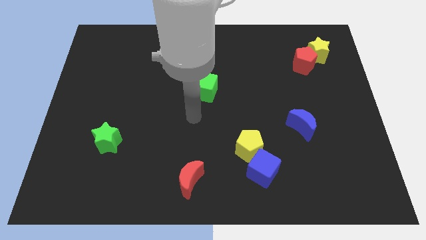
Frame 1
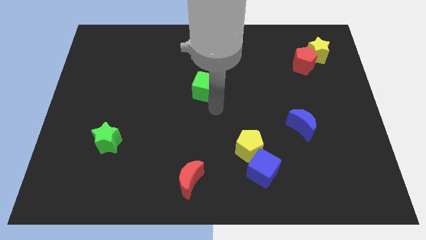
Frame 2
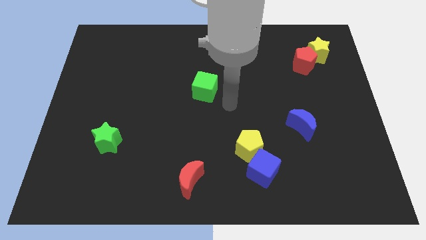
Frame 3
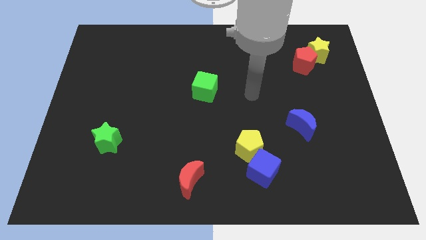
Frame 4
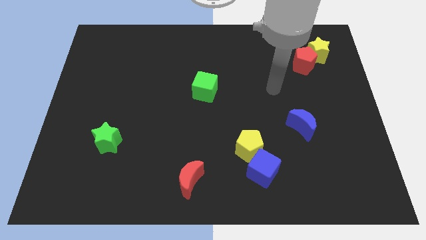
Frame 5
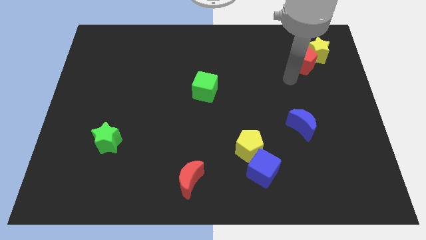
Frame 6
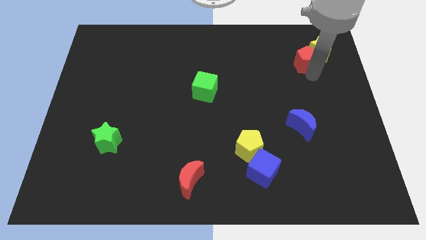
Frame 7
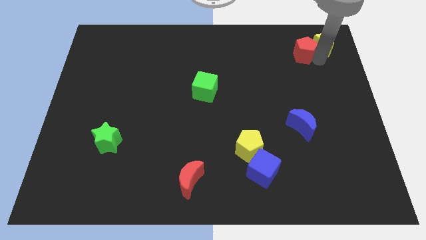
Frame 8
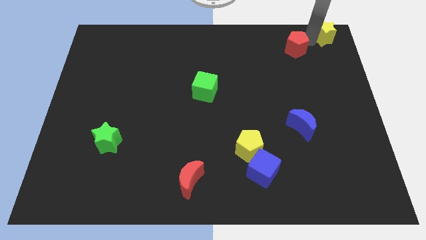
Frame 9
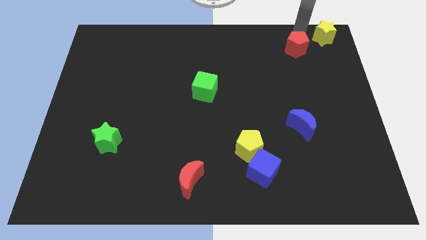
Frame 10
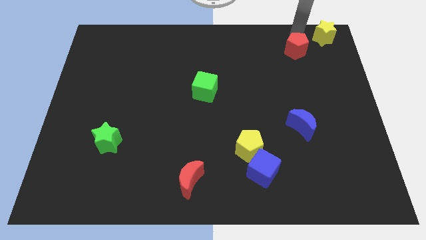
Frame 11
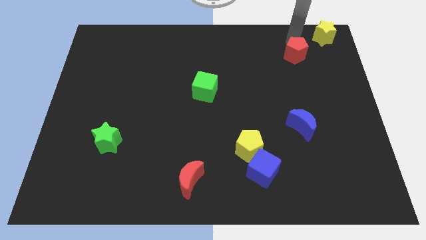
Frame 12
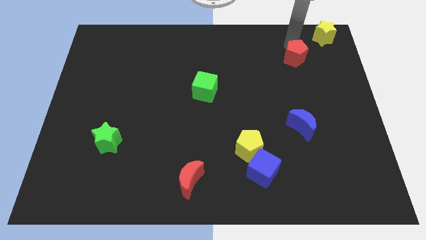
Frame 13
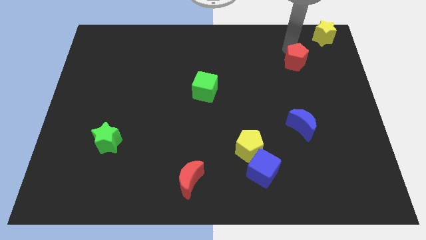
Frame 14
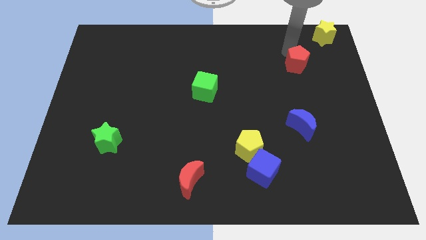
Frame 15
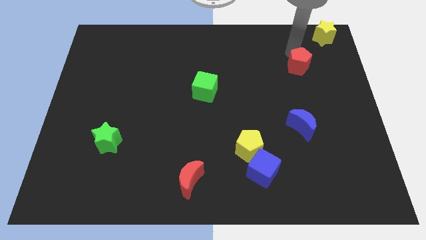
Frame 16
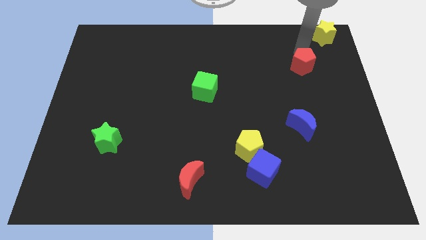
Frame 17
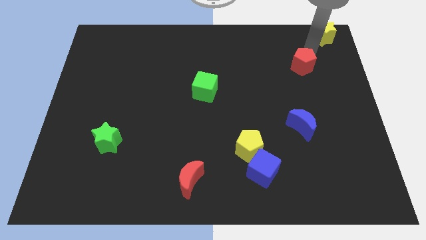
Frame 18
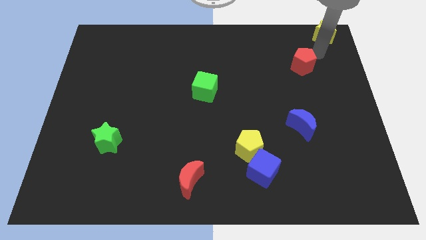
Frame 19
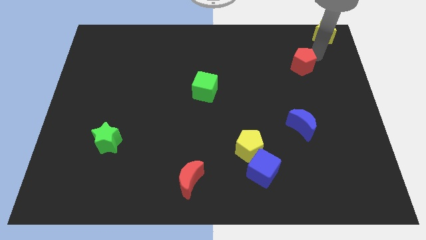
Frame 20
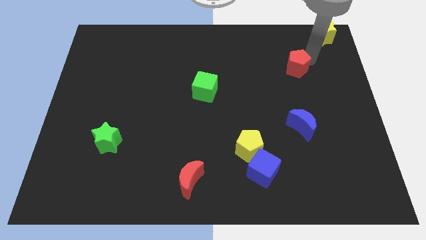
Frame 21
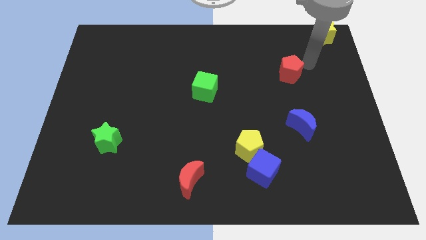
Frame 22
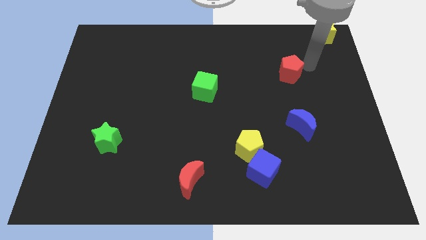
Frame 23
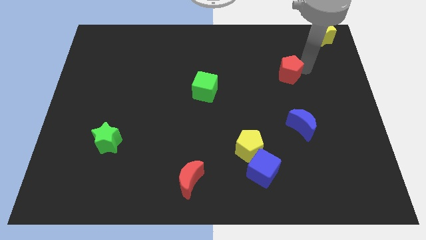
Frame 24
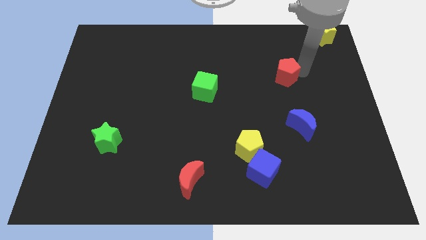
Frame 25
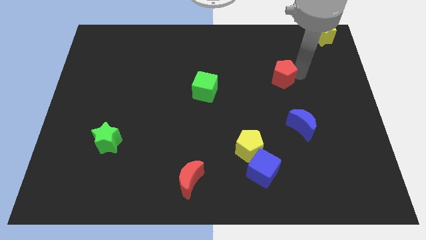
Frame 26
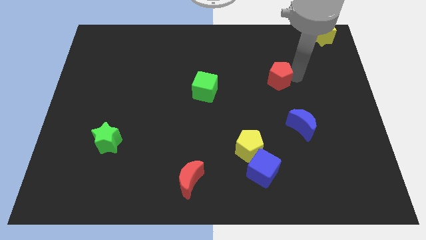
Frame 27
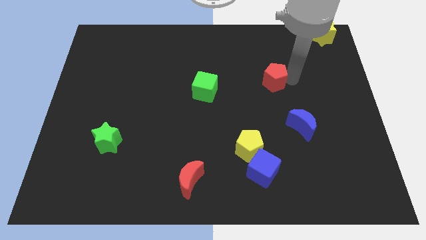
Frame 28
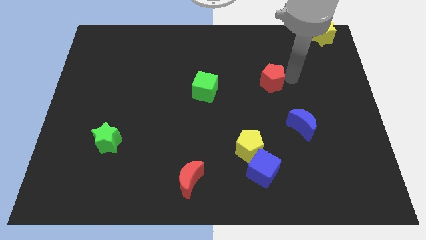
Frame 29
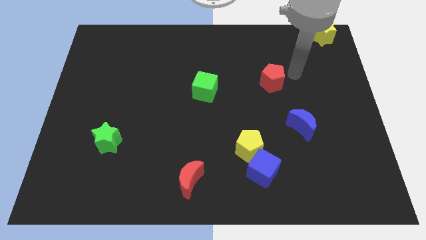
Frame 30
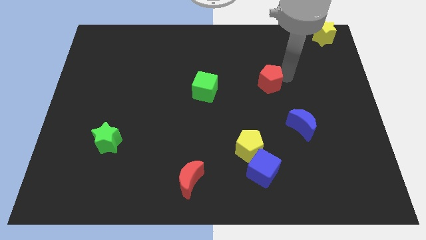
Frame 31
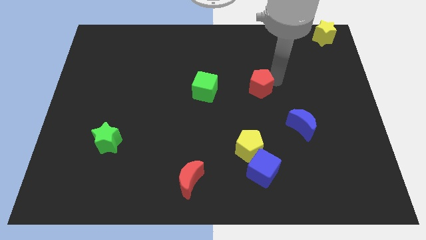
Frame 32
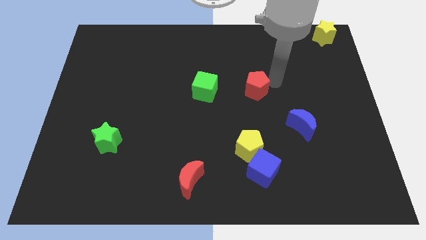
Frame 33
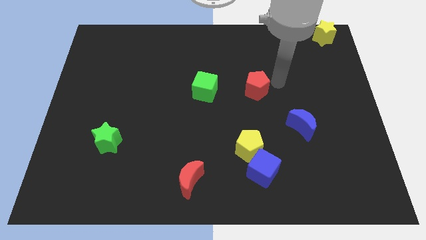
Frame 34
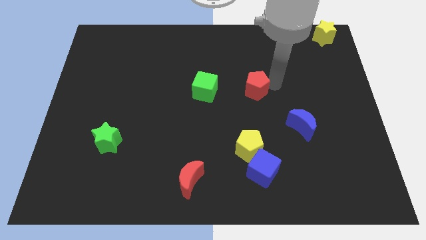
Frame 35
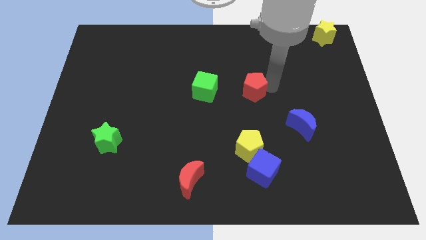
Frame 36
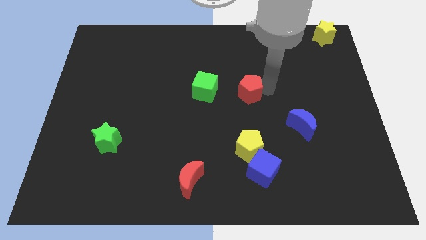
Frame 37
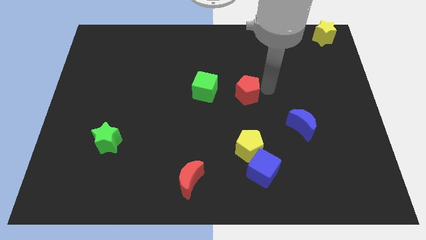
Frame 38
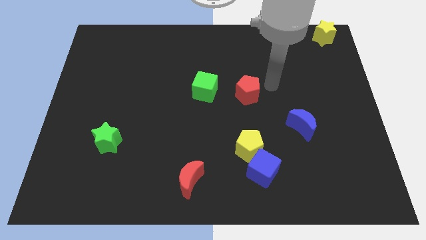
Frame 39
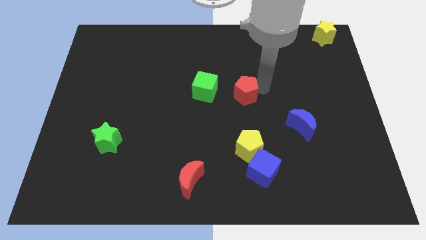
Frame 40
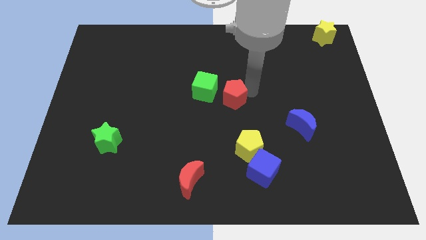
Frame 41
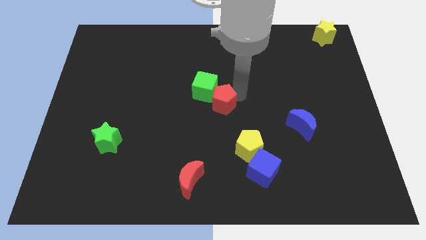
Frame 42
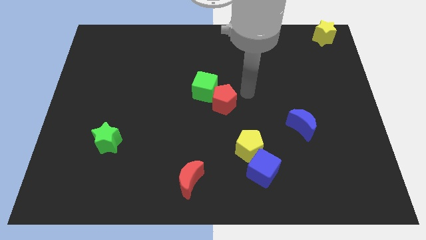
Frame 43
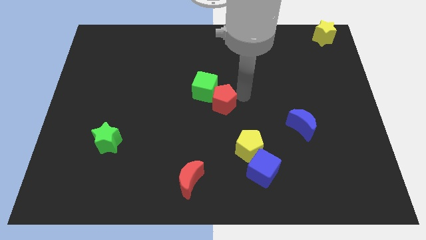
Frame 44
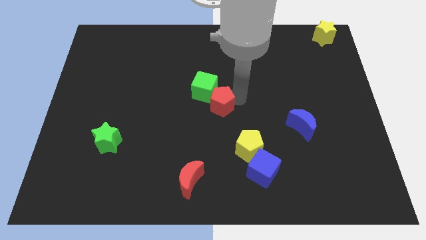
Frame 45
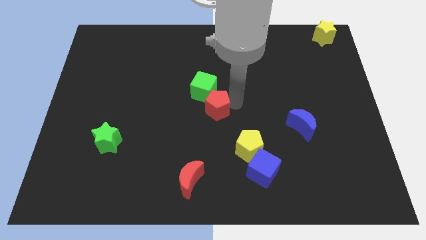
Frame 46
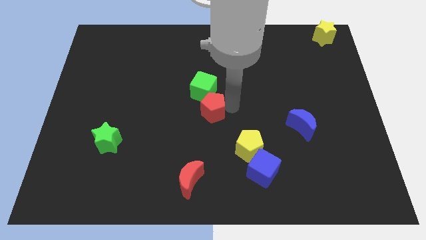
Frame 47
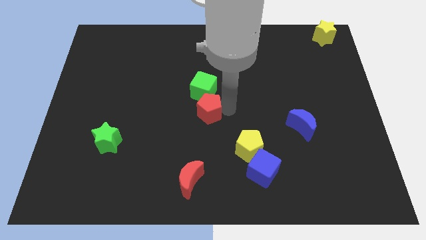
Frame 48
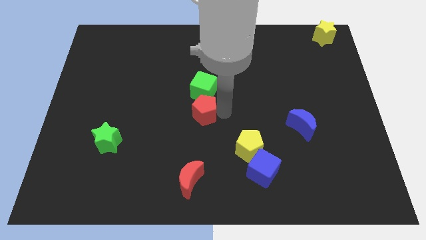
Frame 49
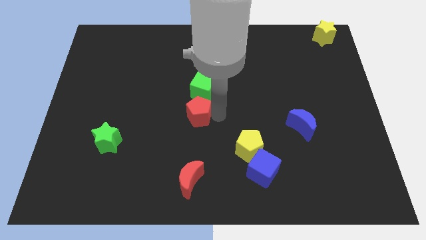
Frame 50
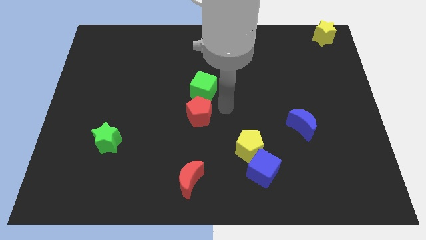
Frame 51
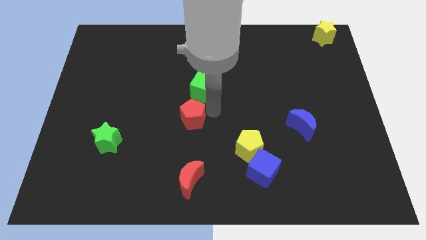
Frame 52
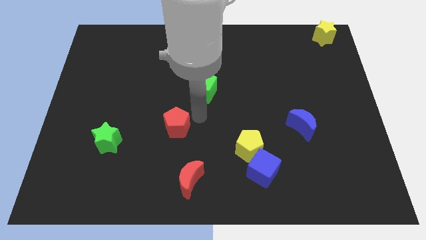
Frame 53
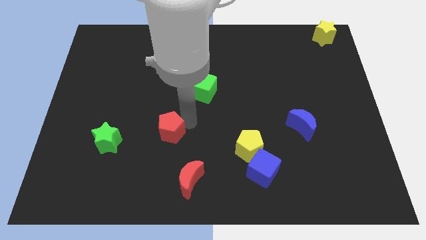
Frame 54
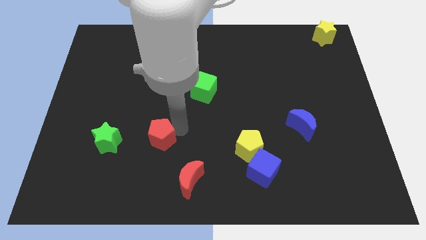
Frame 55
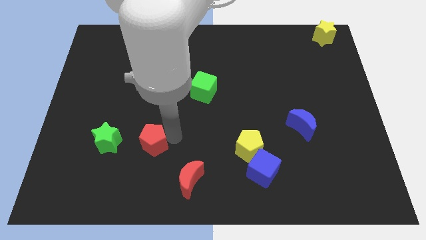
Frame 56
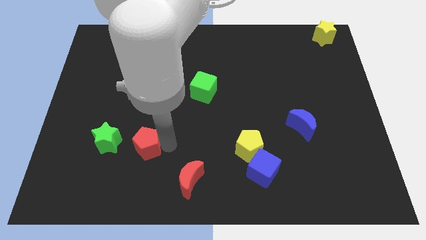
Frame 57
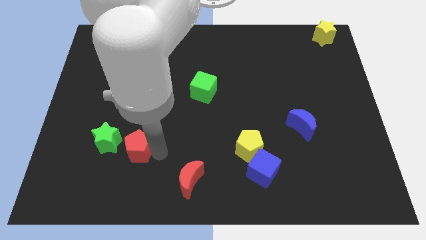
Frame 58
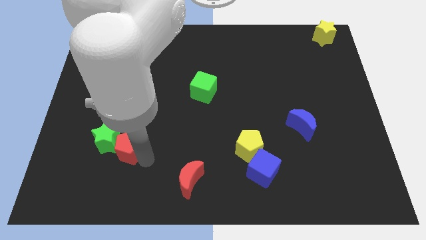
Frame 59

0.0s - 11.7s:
slide the red pentagon towards the green star

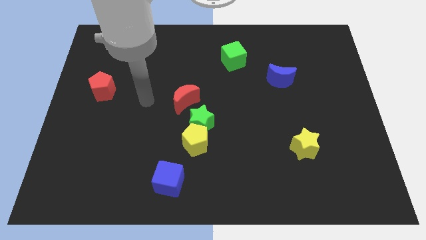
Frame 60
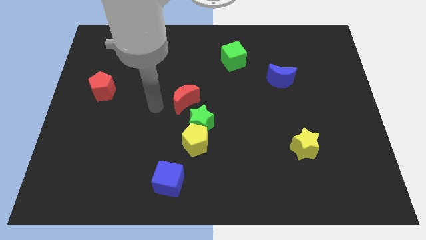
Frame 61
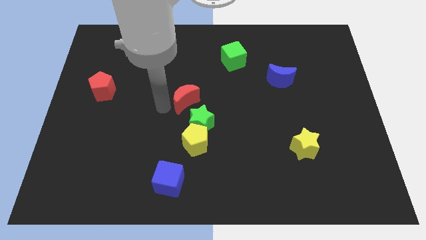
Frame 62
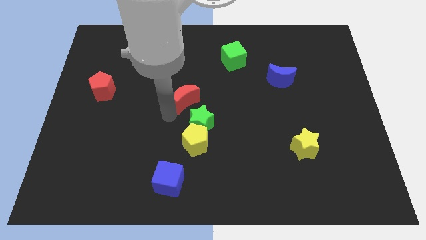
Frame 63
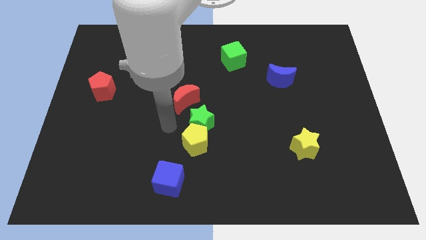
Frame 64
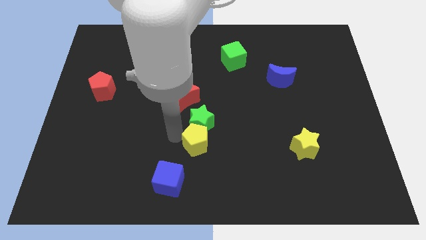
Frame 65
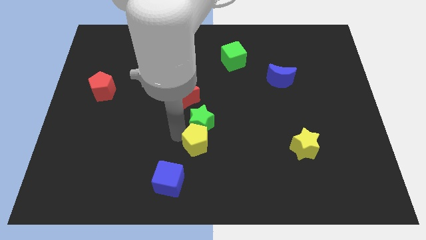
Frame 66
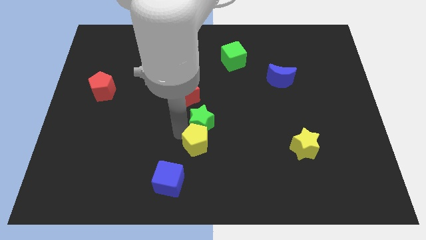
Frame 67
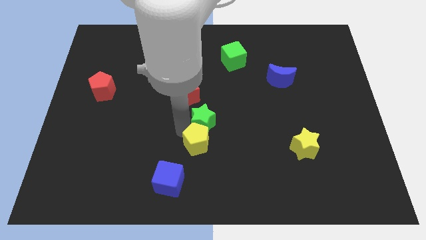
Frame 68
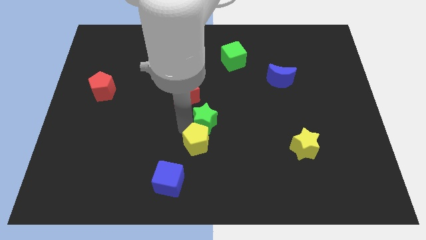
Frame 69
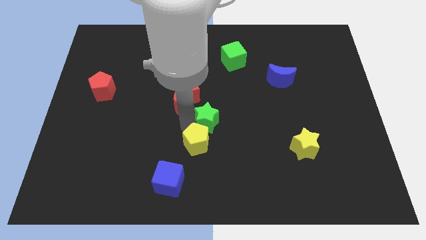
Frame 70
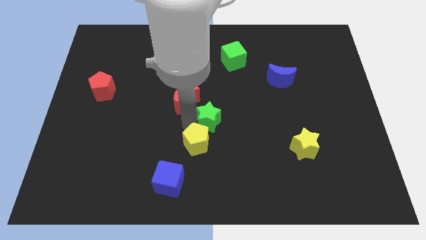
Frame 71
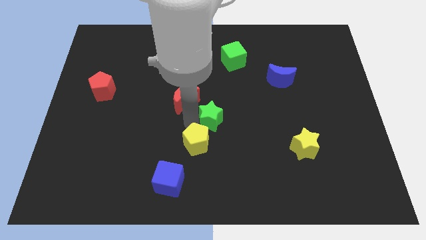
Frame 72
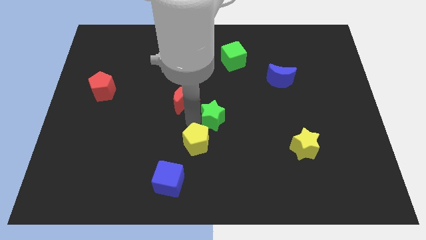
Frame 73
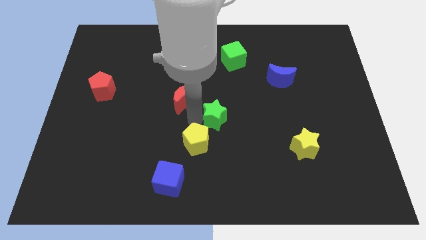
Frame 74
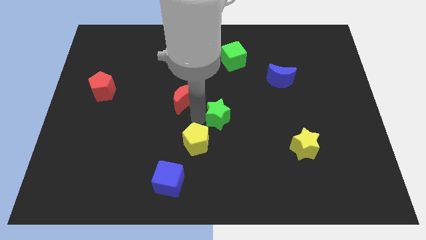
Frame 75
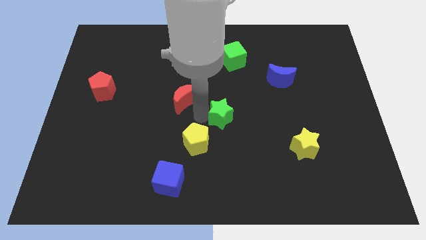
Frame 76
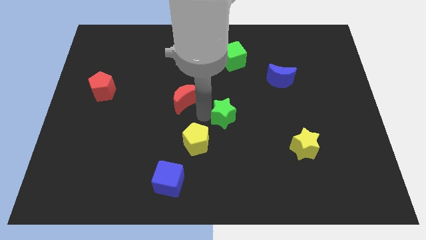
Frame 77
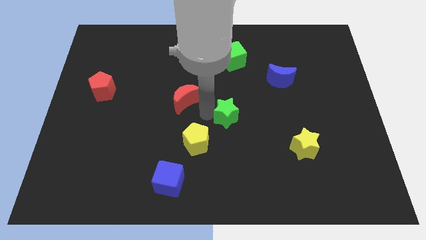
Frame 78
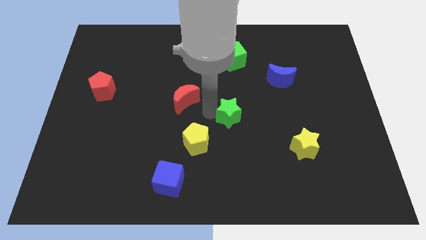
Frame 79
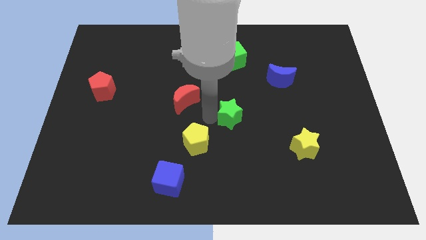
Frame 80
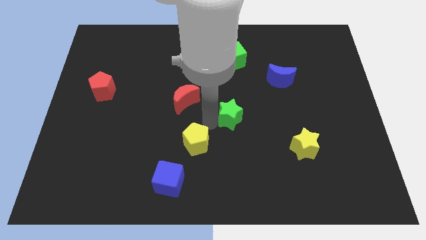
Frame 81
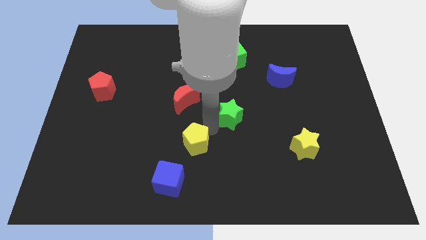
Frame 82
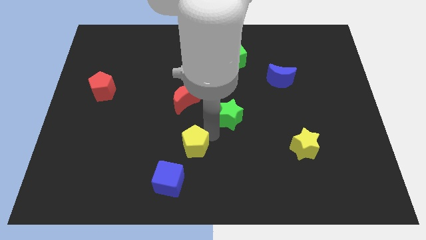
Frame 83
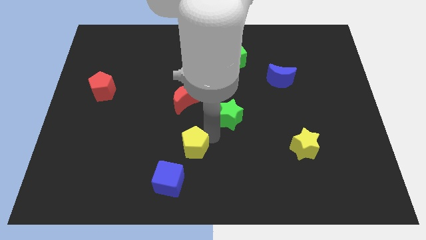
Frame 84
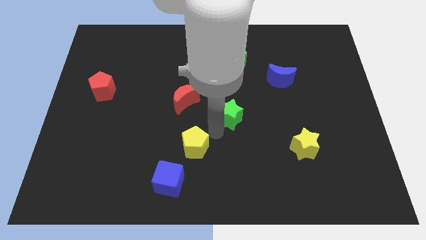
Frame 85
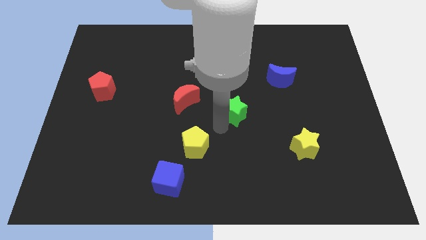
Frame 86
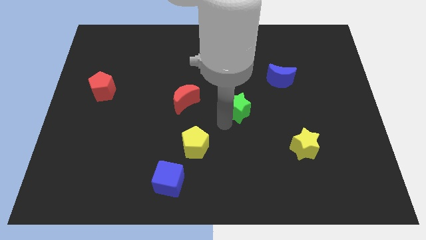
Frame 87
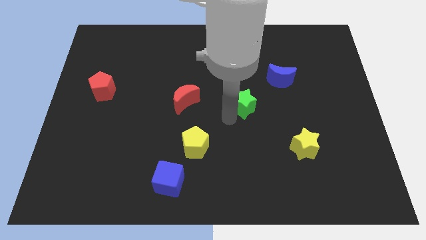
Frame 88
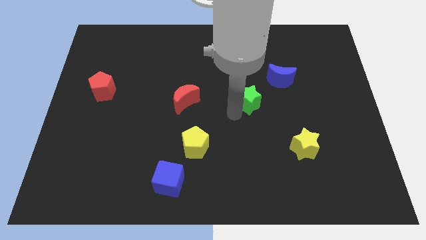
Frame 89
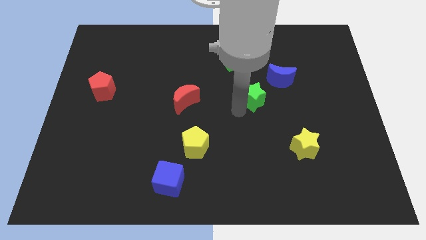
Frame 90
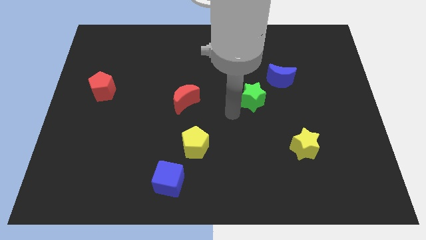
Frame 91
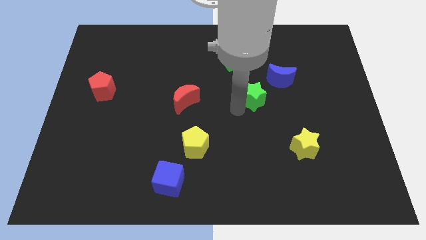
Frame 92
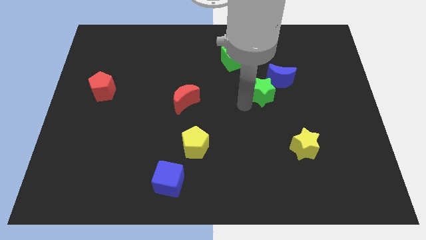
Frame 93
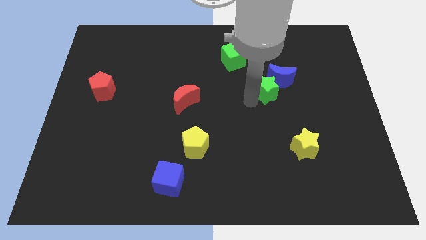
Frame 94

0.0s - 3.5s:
push the green star to the blue moon
